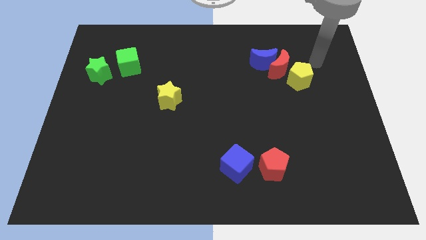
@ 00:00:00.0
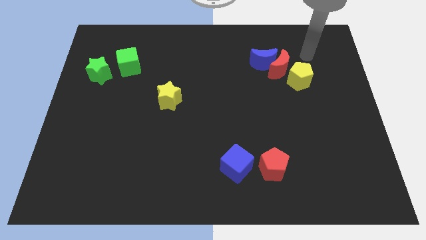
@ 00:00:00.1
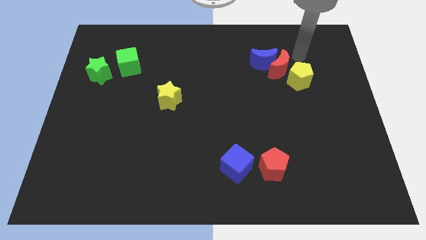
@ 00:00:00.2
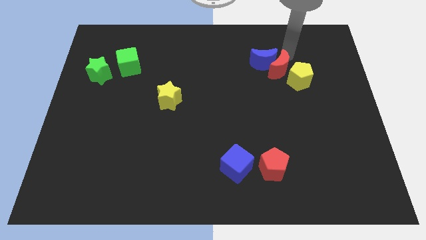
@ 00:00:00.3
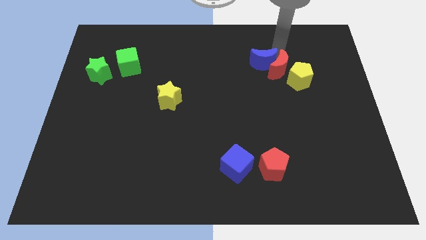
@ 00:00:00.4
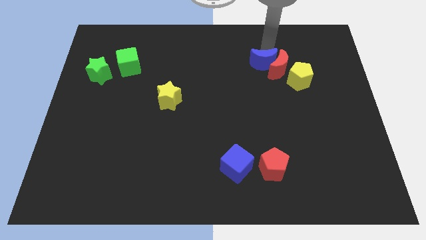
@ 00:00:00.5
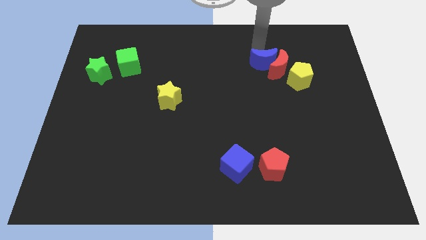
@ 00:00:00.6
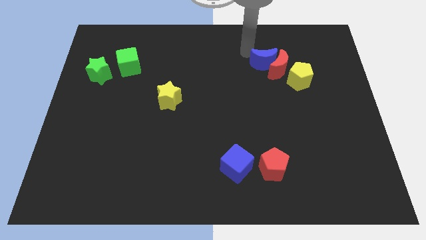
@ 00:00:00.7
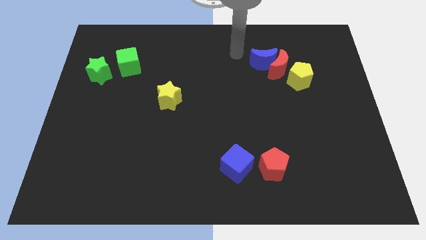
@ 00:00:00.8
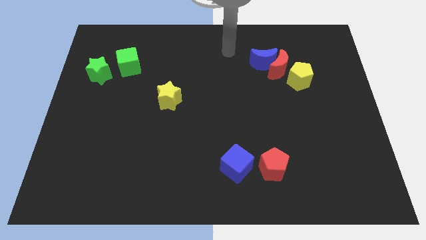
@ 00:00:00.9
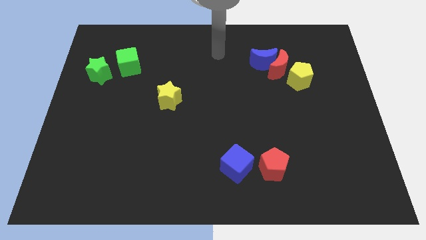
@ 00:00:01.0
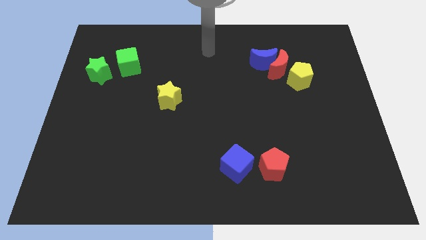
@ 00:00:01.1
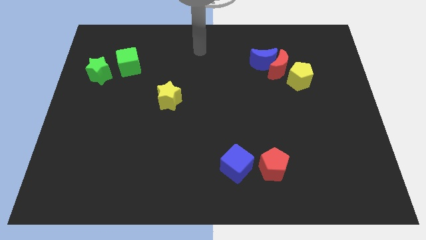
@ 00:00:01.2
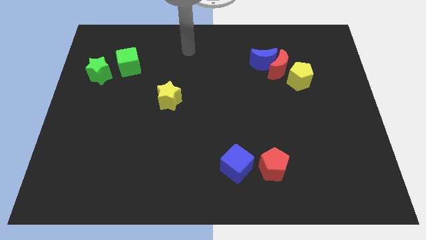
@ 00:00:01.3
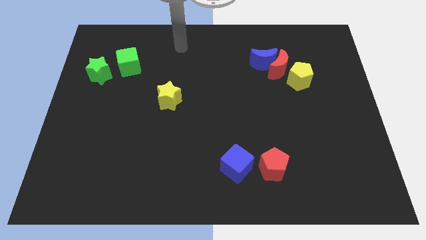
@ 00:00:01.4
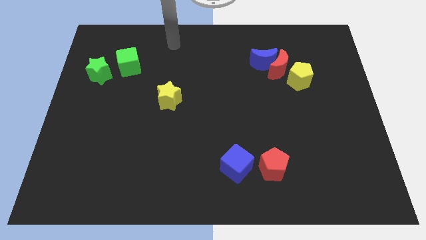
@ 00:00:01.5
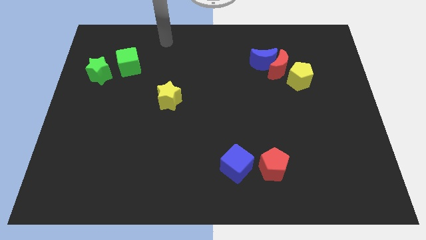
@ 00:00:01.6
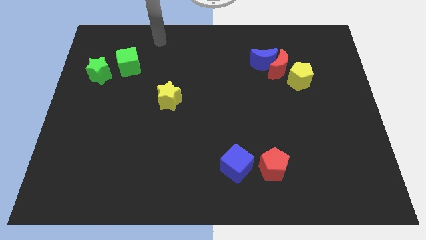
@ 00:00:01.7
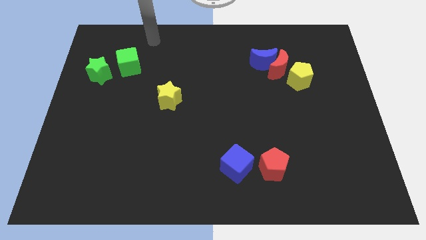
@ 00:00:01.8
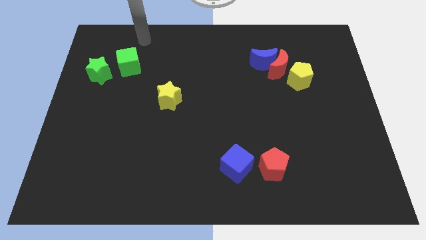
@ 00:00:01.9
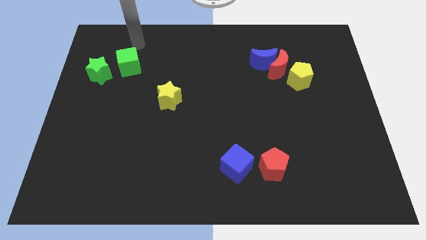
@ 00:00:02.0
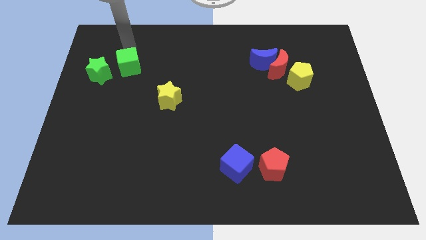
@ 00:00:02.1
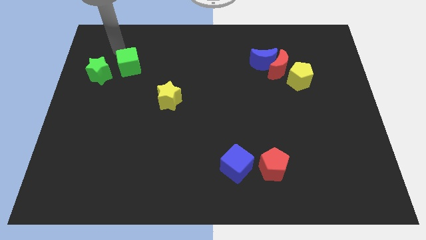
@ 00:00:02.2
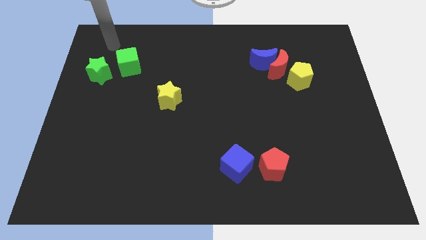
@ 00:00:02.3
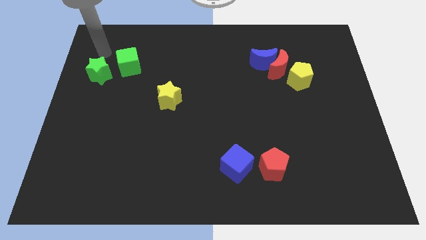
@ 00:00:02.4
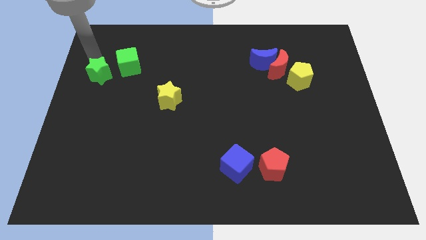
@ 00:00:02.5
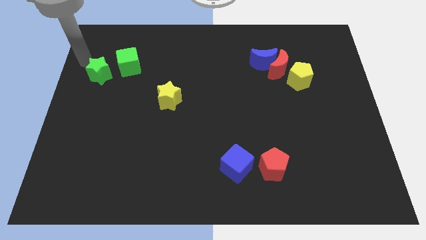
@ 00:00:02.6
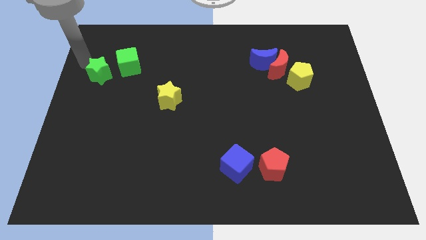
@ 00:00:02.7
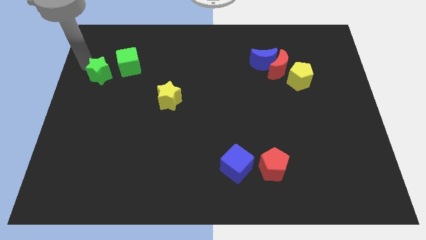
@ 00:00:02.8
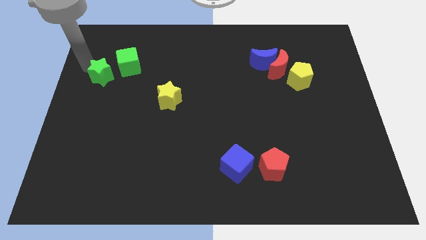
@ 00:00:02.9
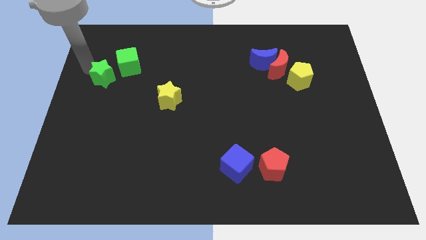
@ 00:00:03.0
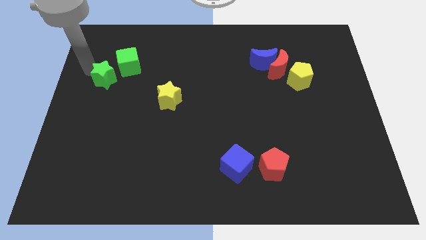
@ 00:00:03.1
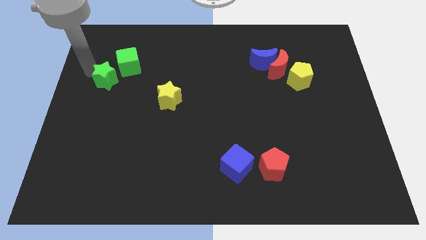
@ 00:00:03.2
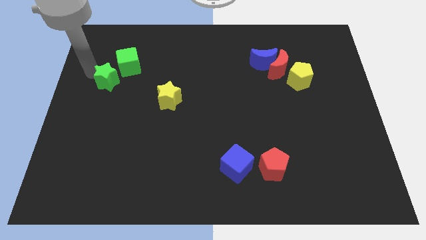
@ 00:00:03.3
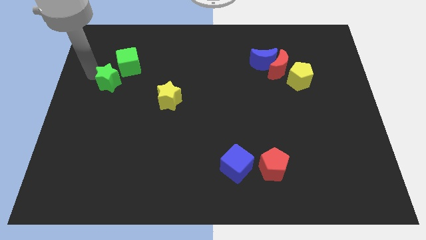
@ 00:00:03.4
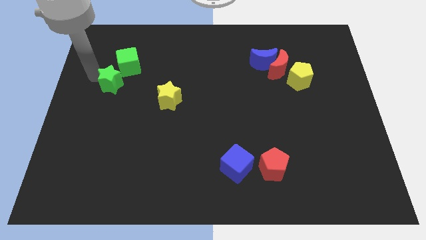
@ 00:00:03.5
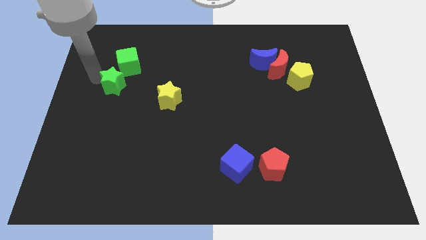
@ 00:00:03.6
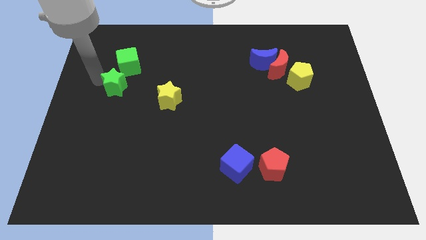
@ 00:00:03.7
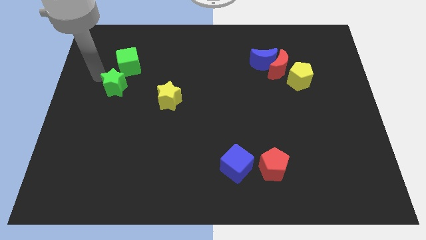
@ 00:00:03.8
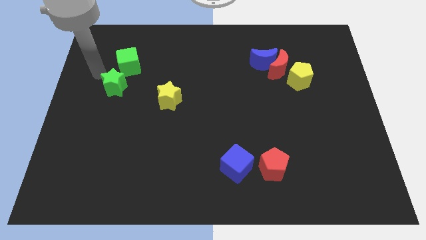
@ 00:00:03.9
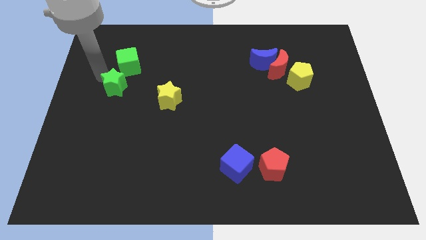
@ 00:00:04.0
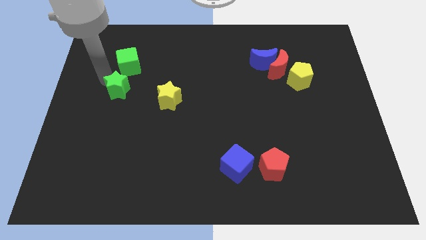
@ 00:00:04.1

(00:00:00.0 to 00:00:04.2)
move the green star downwards and then right somewhat

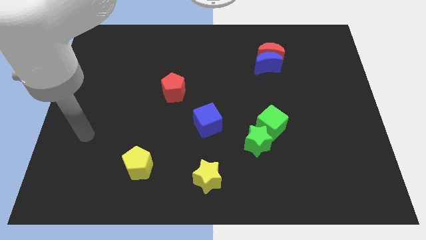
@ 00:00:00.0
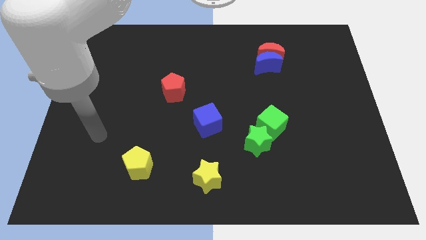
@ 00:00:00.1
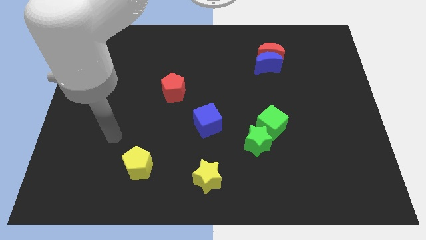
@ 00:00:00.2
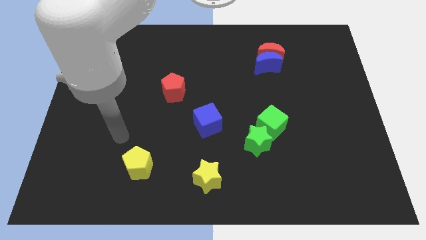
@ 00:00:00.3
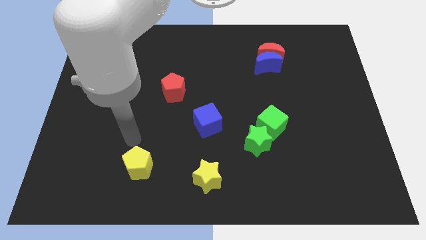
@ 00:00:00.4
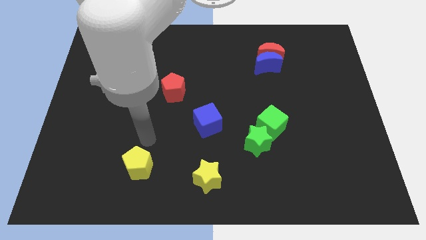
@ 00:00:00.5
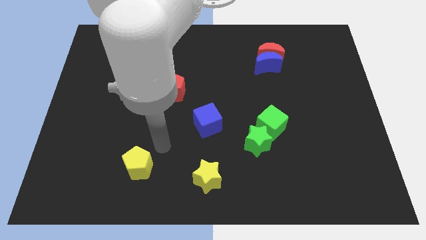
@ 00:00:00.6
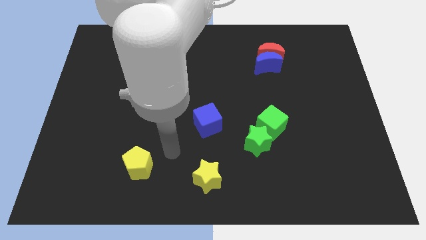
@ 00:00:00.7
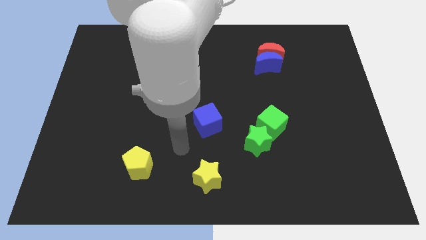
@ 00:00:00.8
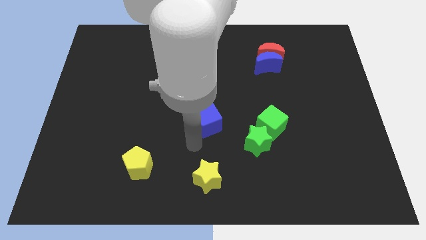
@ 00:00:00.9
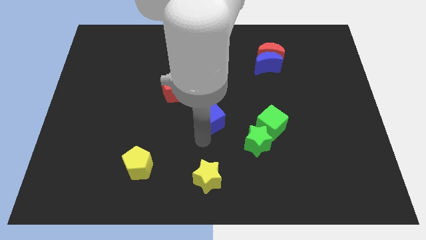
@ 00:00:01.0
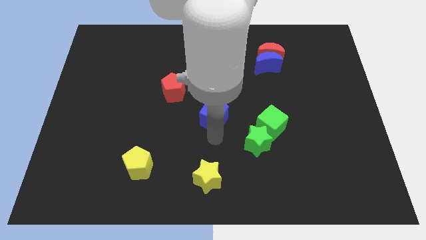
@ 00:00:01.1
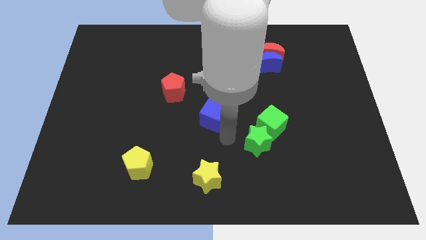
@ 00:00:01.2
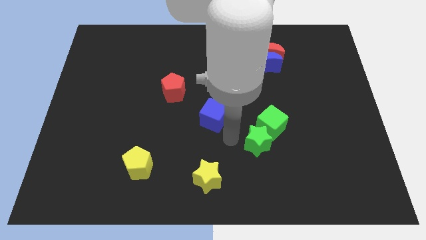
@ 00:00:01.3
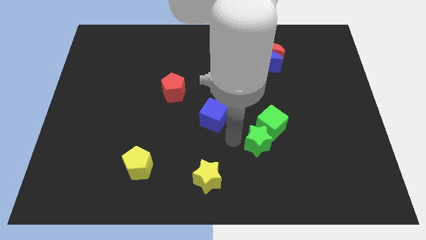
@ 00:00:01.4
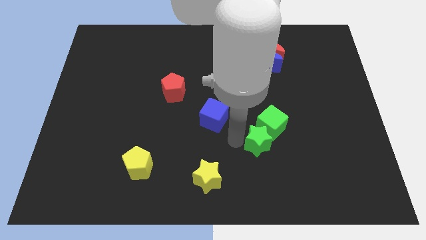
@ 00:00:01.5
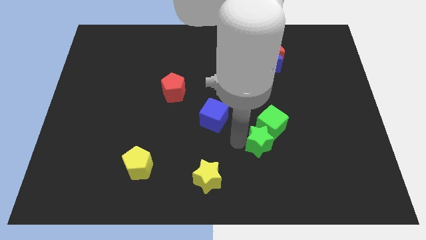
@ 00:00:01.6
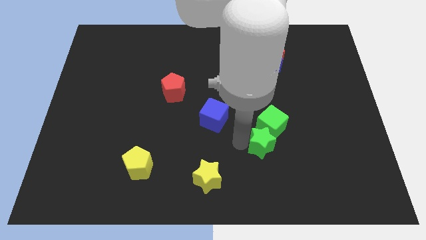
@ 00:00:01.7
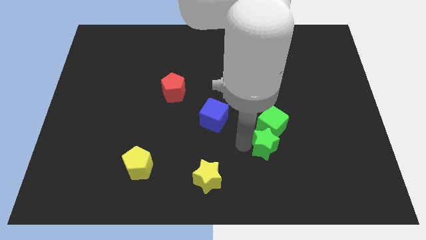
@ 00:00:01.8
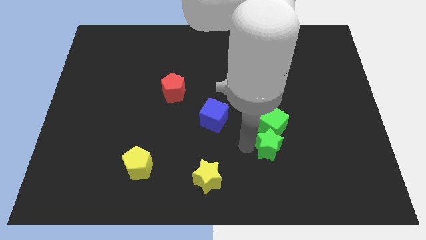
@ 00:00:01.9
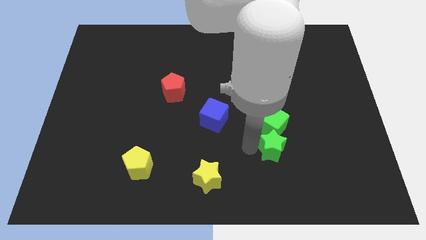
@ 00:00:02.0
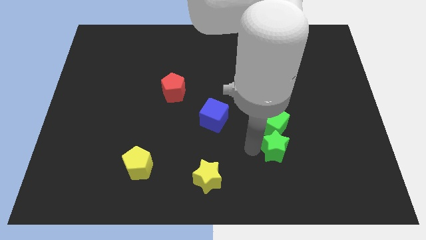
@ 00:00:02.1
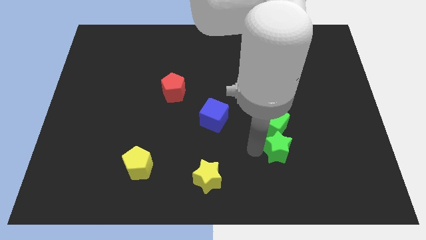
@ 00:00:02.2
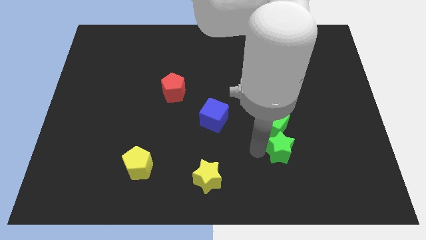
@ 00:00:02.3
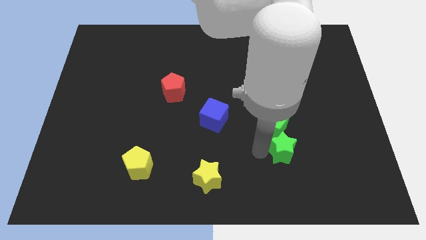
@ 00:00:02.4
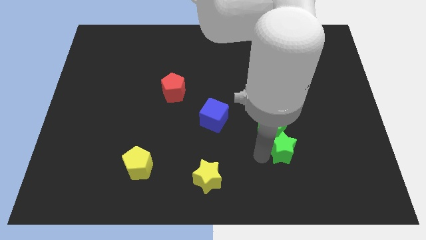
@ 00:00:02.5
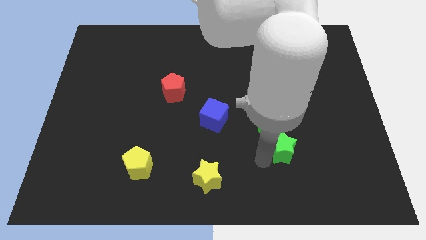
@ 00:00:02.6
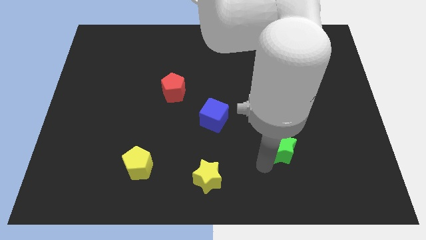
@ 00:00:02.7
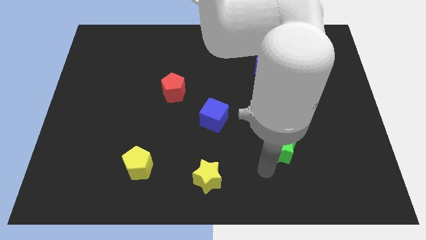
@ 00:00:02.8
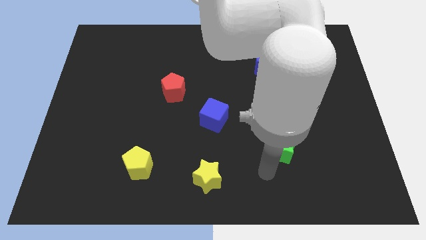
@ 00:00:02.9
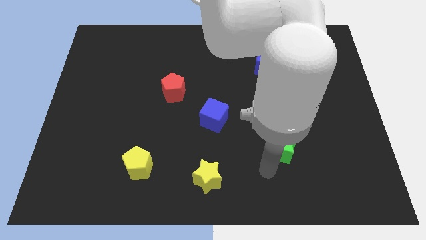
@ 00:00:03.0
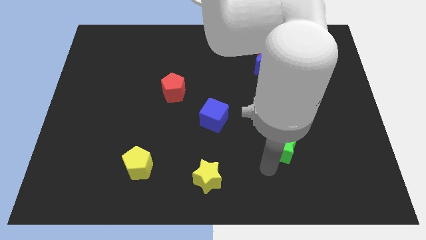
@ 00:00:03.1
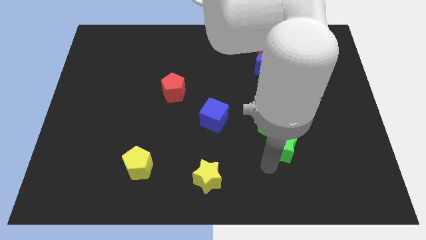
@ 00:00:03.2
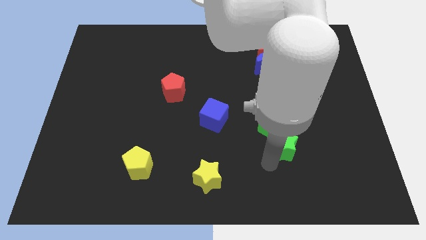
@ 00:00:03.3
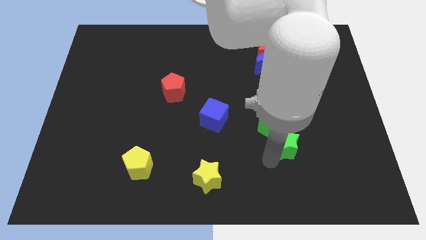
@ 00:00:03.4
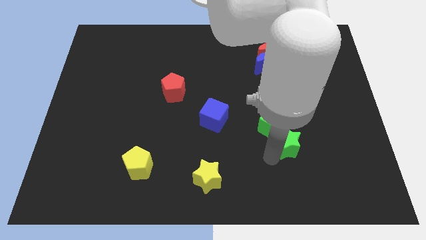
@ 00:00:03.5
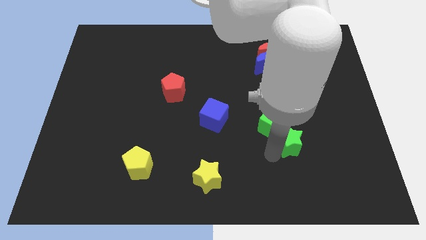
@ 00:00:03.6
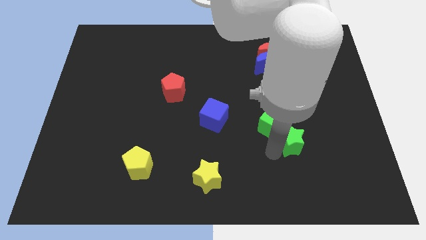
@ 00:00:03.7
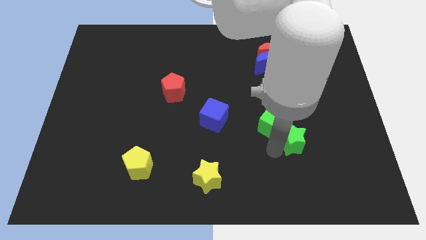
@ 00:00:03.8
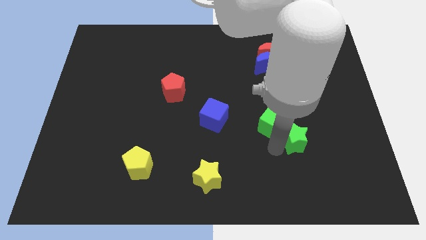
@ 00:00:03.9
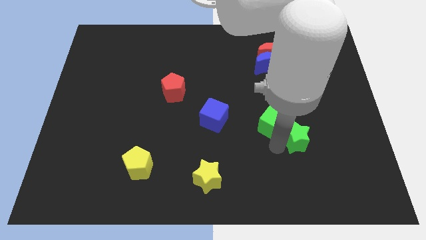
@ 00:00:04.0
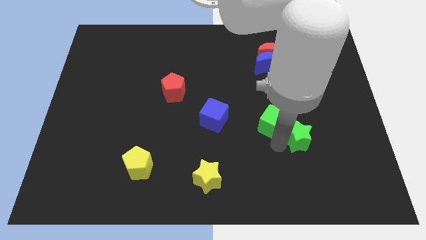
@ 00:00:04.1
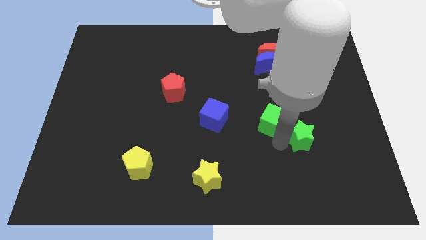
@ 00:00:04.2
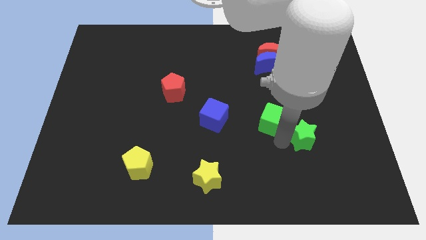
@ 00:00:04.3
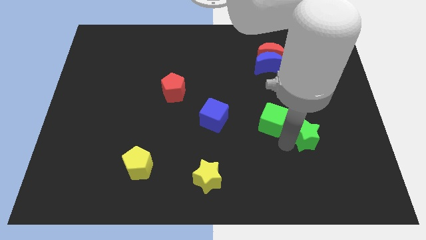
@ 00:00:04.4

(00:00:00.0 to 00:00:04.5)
slightly push the green star diagonally upwards and to the right
